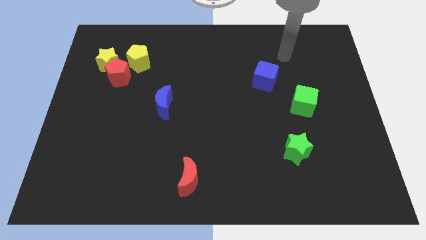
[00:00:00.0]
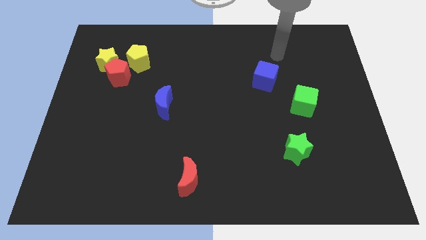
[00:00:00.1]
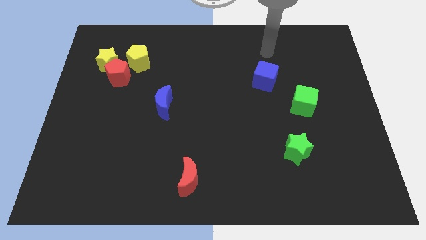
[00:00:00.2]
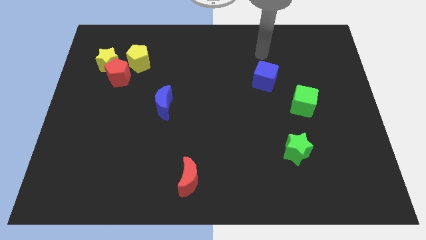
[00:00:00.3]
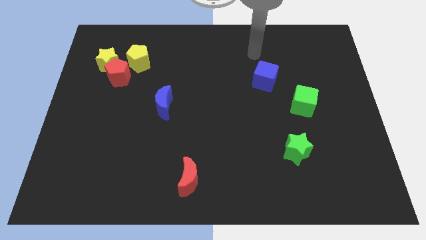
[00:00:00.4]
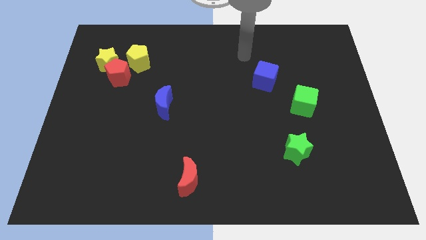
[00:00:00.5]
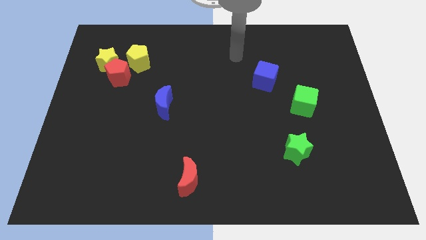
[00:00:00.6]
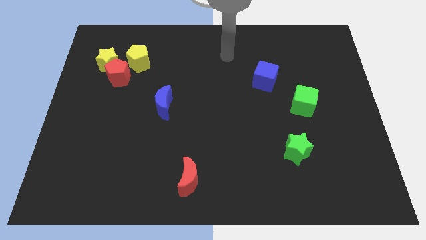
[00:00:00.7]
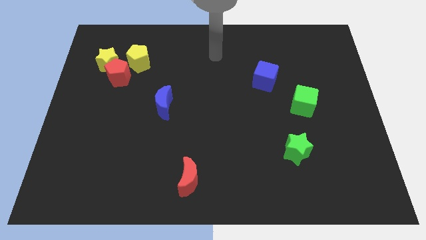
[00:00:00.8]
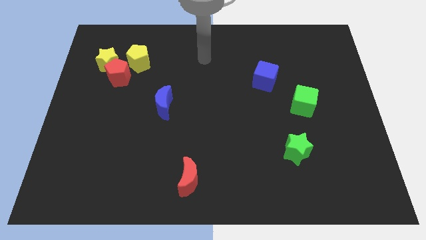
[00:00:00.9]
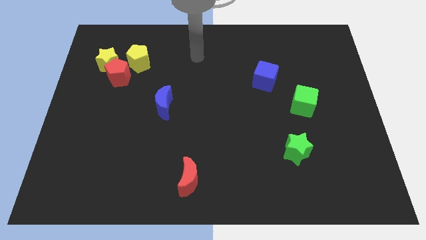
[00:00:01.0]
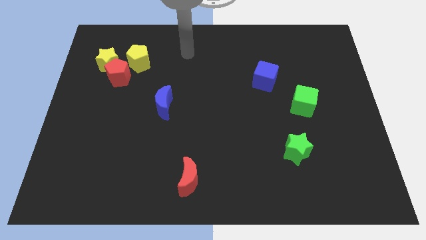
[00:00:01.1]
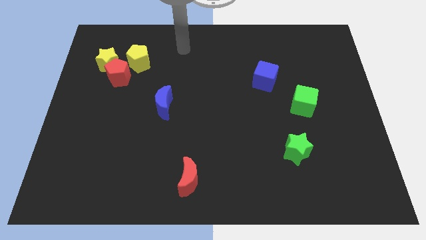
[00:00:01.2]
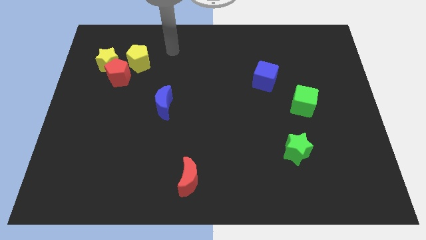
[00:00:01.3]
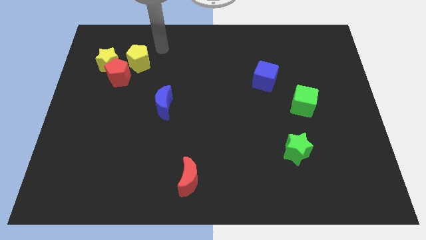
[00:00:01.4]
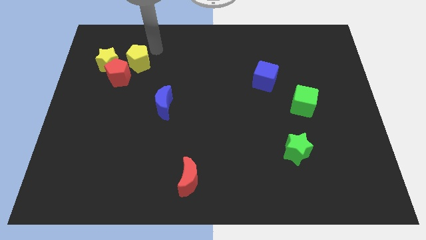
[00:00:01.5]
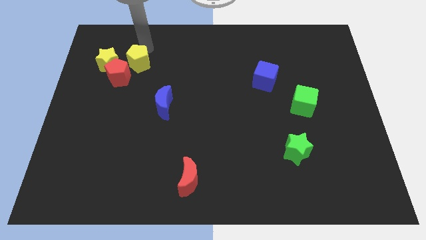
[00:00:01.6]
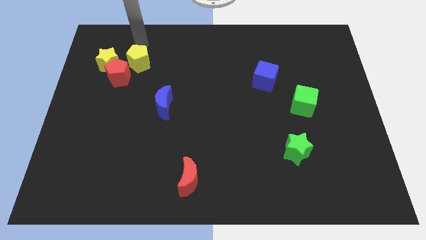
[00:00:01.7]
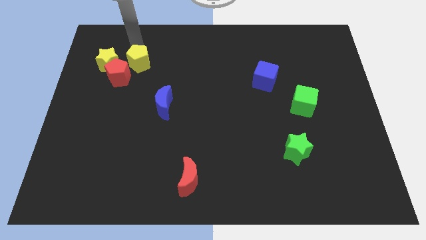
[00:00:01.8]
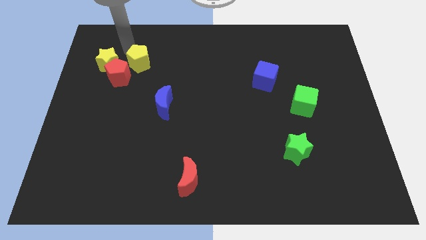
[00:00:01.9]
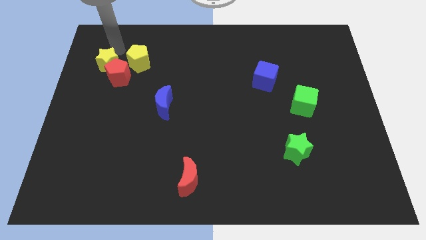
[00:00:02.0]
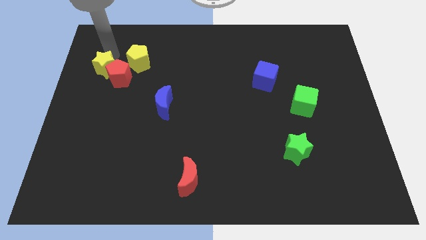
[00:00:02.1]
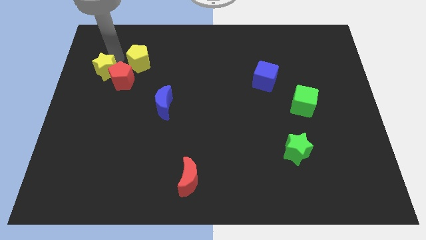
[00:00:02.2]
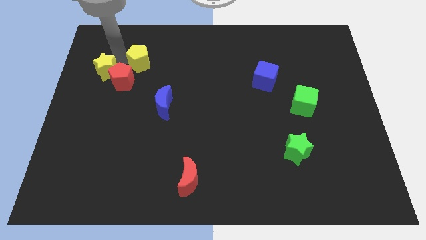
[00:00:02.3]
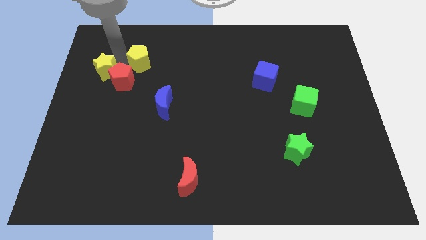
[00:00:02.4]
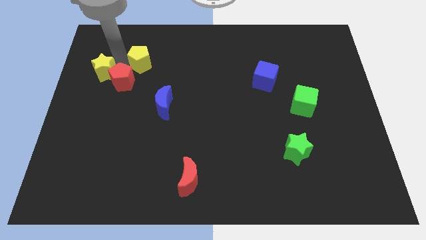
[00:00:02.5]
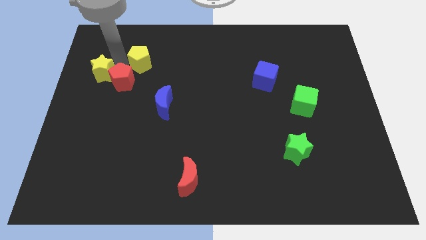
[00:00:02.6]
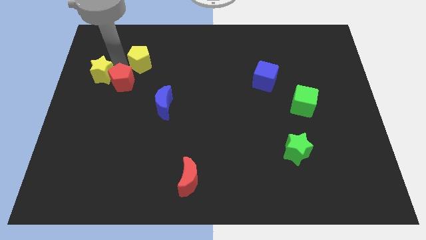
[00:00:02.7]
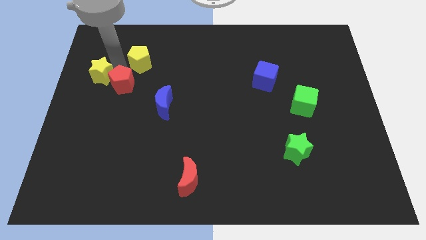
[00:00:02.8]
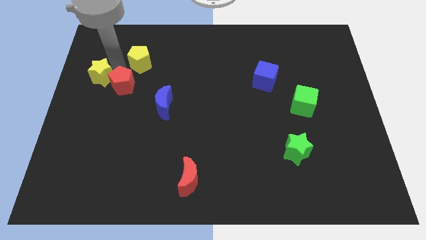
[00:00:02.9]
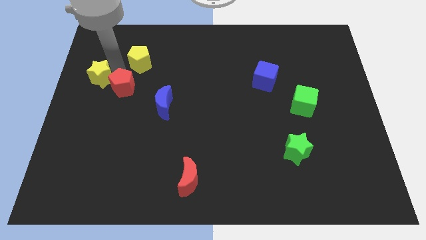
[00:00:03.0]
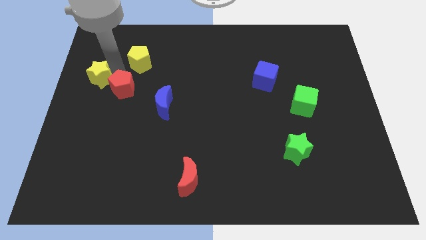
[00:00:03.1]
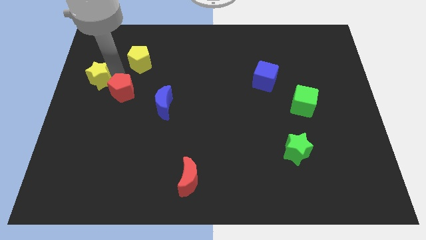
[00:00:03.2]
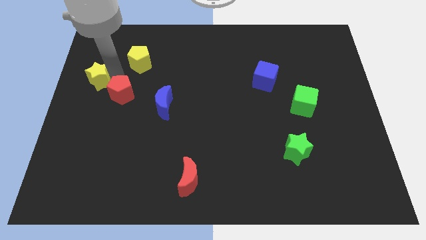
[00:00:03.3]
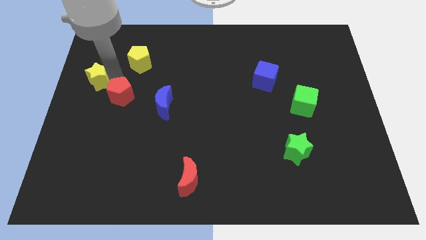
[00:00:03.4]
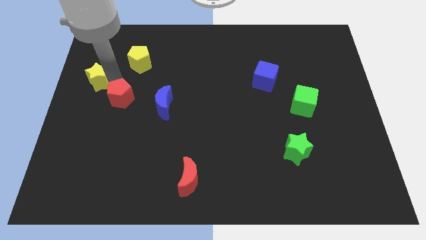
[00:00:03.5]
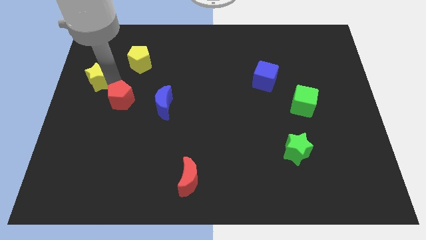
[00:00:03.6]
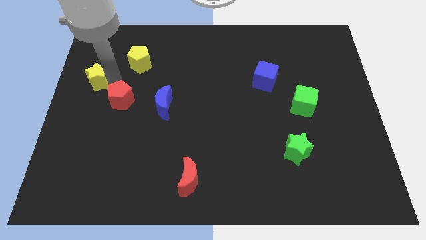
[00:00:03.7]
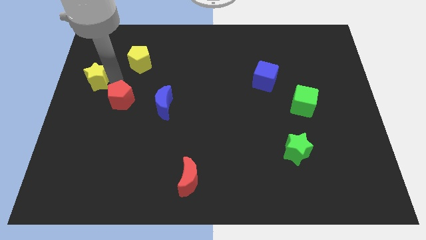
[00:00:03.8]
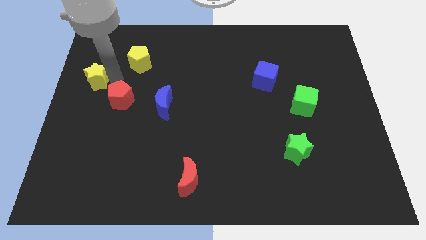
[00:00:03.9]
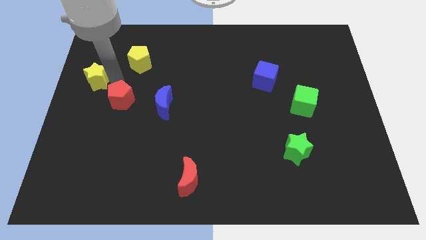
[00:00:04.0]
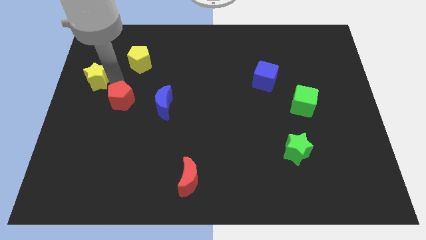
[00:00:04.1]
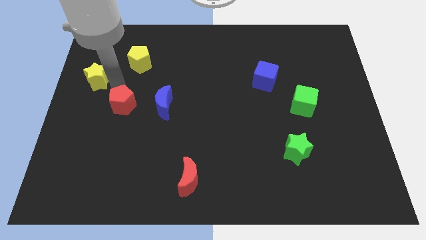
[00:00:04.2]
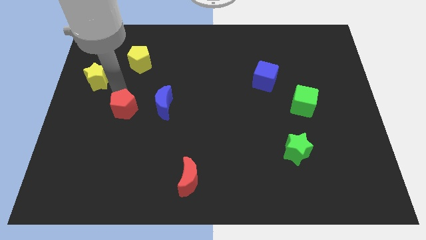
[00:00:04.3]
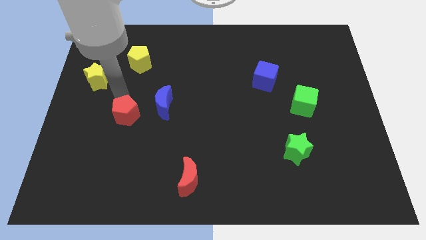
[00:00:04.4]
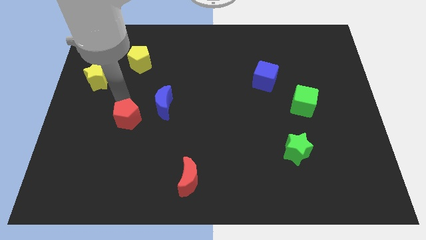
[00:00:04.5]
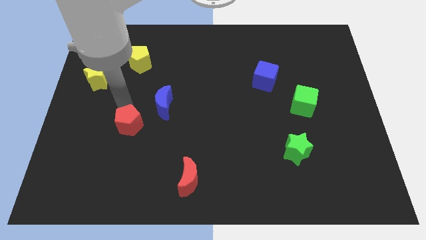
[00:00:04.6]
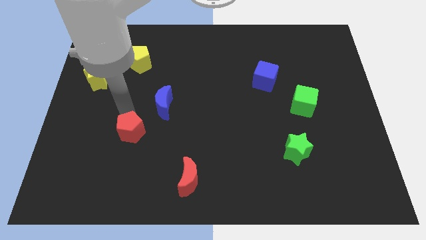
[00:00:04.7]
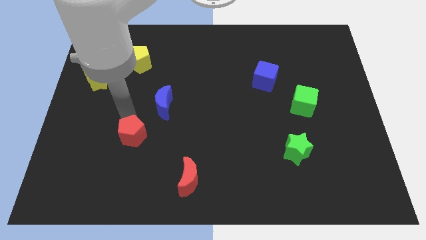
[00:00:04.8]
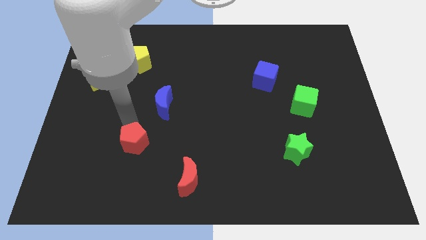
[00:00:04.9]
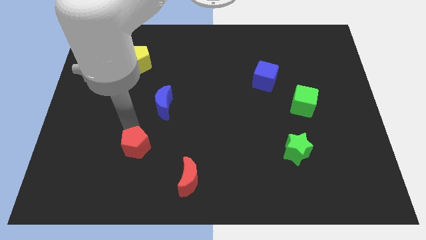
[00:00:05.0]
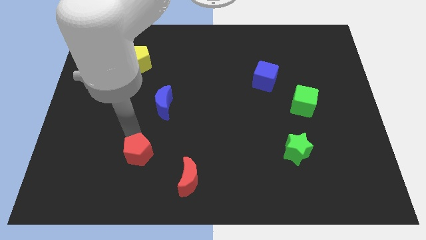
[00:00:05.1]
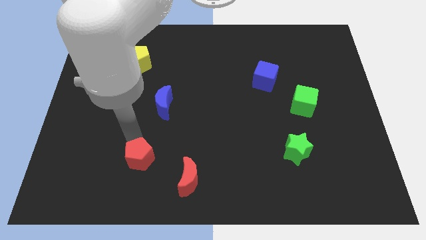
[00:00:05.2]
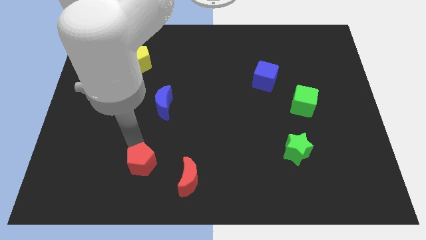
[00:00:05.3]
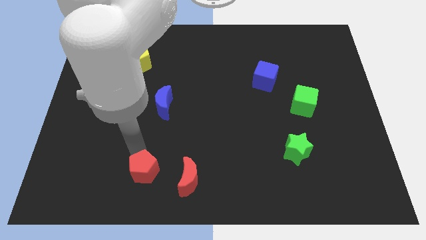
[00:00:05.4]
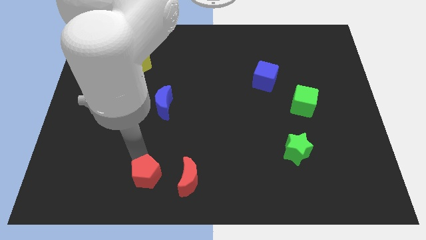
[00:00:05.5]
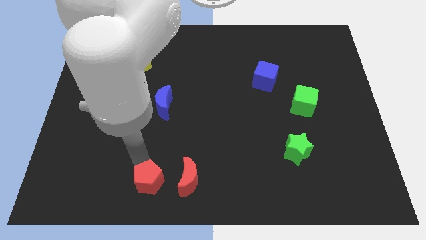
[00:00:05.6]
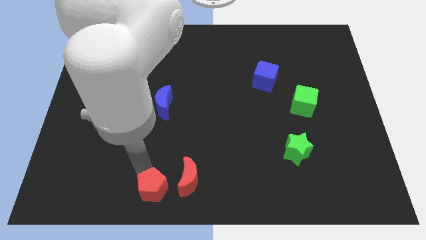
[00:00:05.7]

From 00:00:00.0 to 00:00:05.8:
put the red pentagon to the bottom
